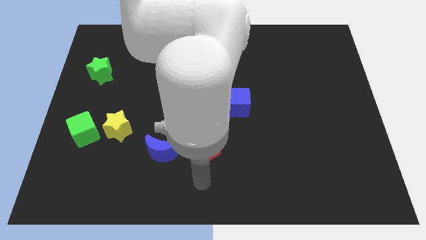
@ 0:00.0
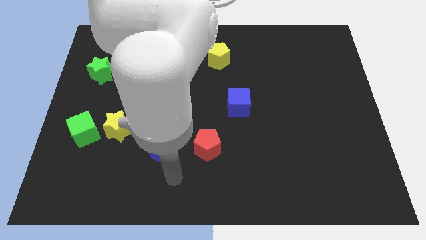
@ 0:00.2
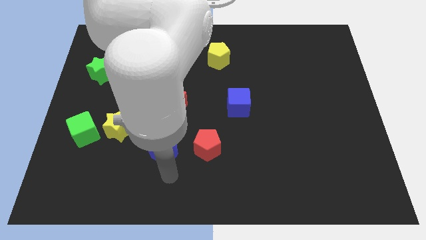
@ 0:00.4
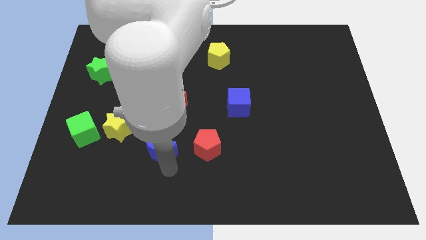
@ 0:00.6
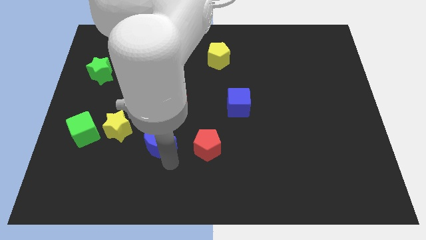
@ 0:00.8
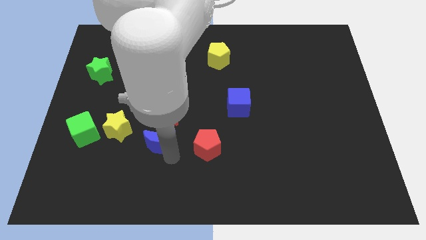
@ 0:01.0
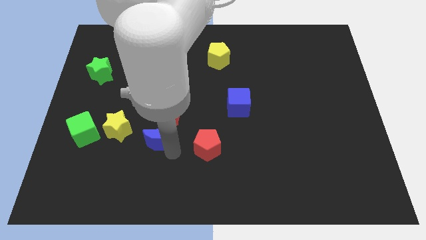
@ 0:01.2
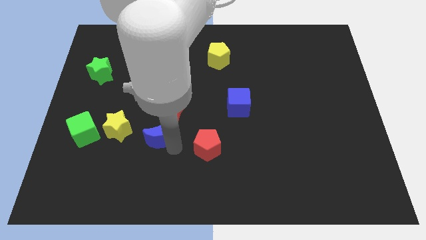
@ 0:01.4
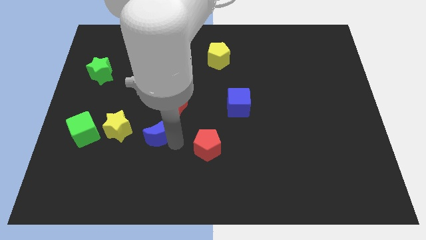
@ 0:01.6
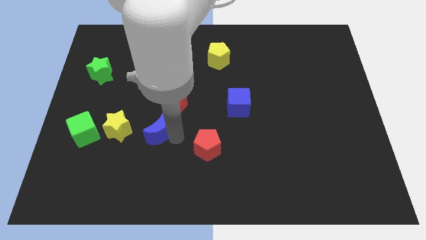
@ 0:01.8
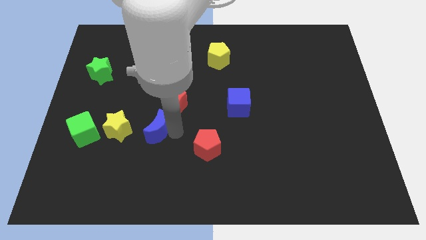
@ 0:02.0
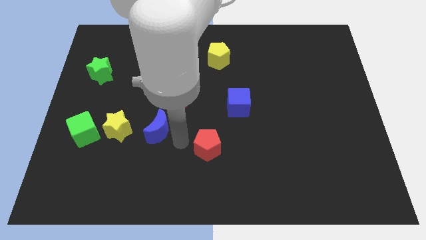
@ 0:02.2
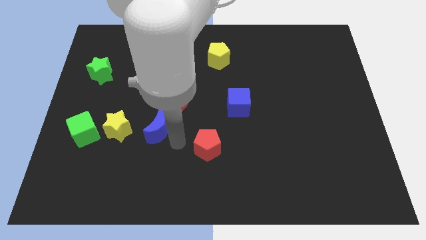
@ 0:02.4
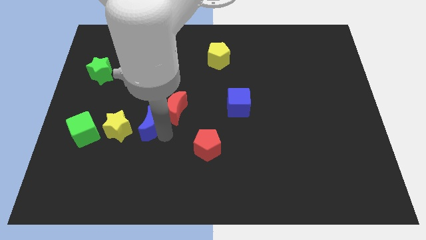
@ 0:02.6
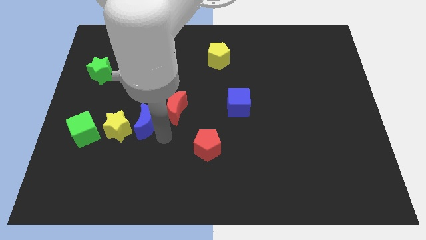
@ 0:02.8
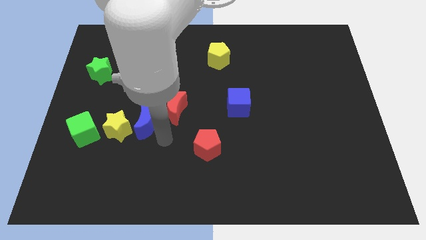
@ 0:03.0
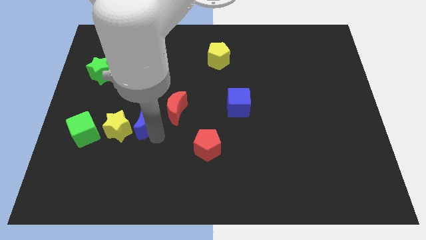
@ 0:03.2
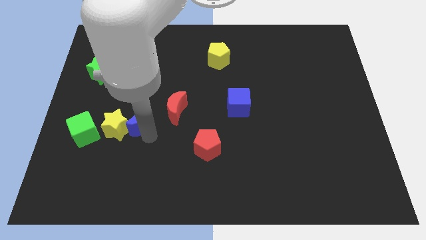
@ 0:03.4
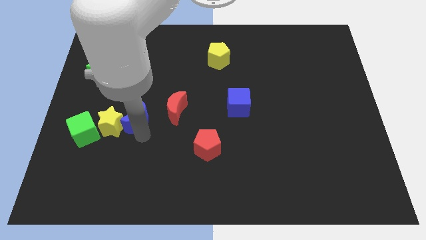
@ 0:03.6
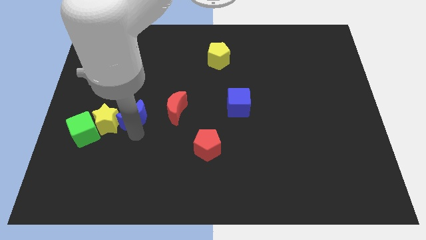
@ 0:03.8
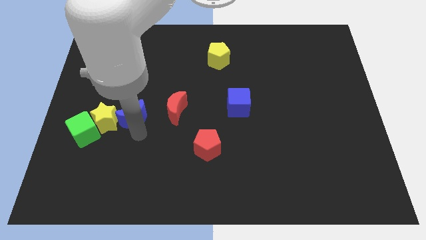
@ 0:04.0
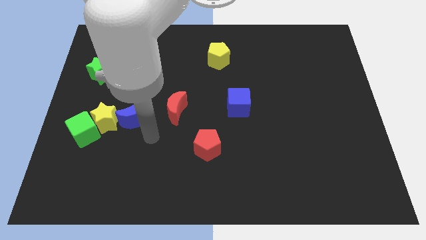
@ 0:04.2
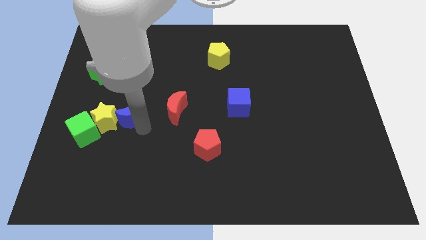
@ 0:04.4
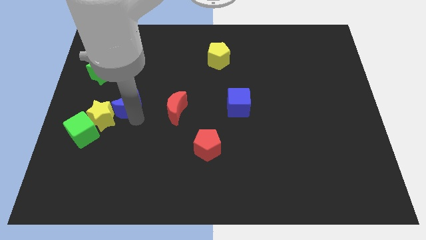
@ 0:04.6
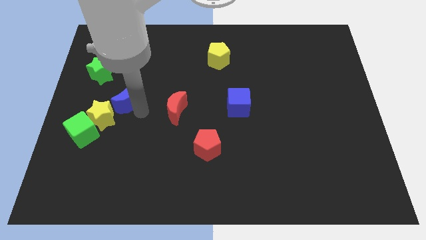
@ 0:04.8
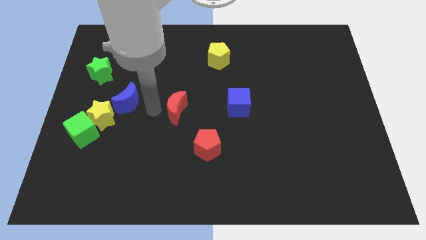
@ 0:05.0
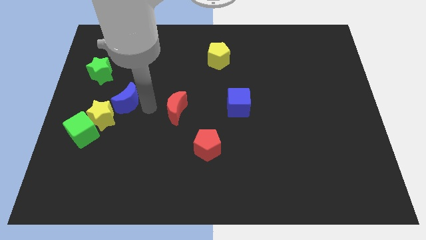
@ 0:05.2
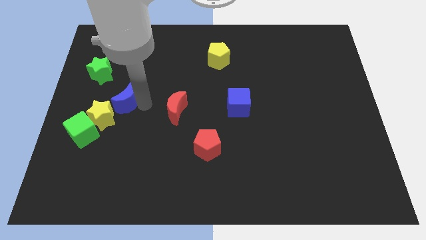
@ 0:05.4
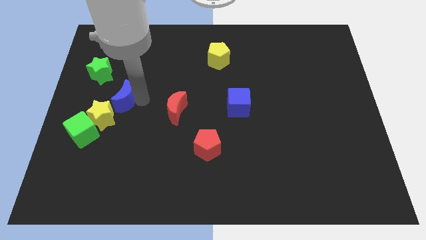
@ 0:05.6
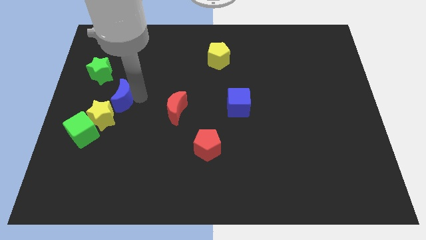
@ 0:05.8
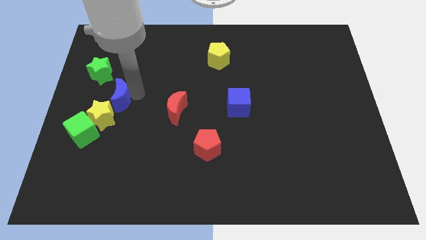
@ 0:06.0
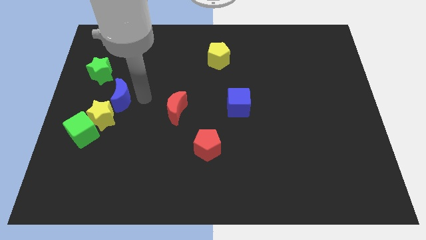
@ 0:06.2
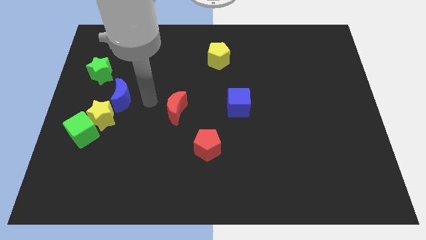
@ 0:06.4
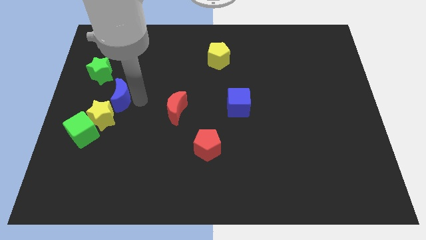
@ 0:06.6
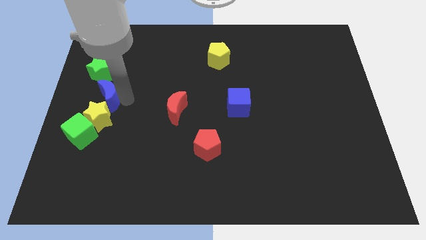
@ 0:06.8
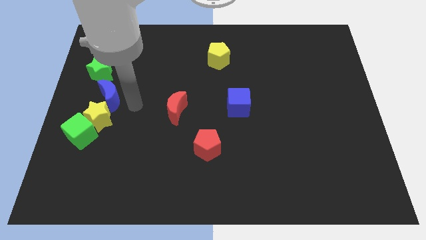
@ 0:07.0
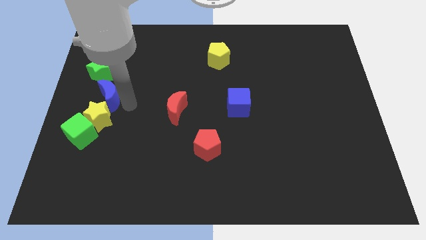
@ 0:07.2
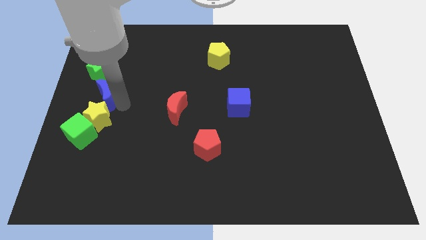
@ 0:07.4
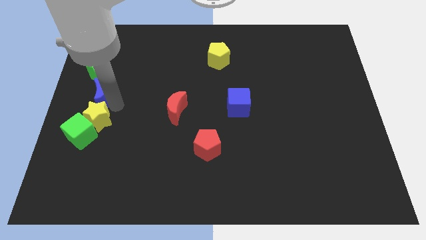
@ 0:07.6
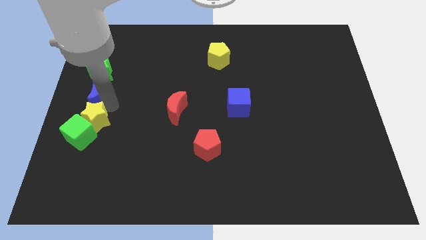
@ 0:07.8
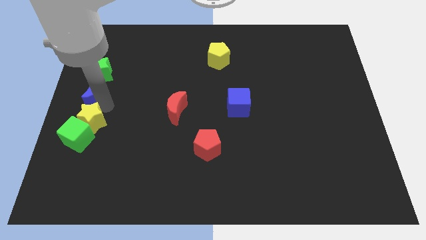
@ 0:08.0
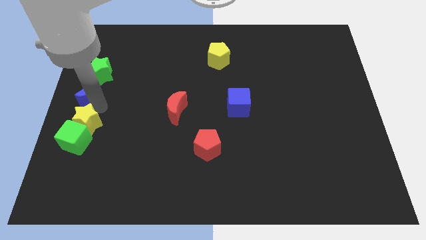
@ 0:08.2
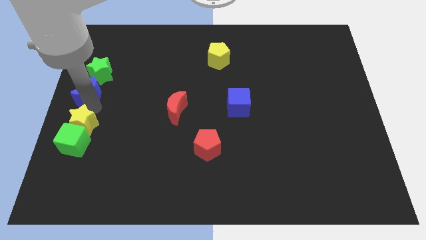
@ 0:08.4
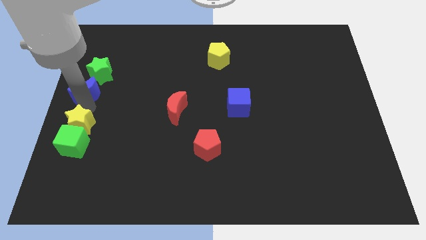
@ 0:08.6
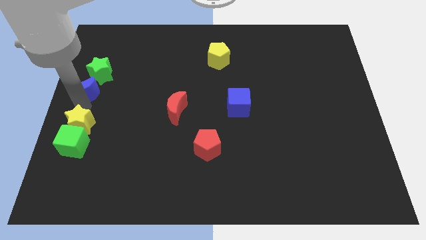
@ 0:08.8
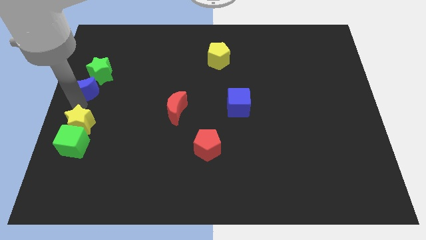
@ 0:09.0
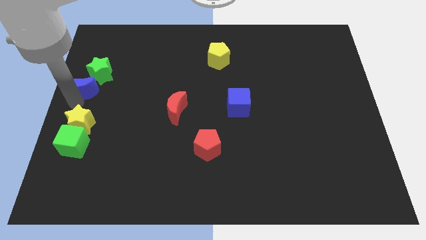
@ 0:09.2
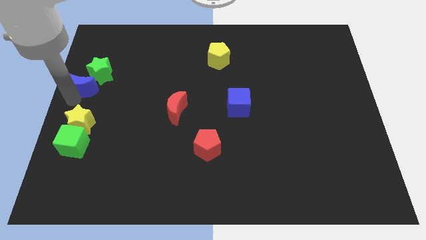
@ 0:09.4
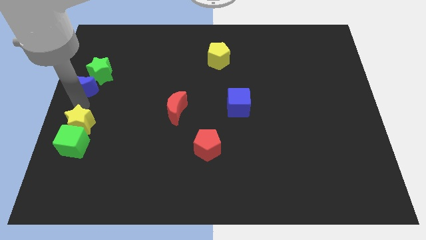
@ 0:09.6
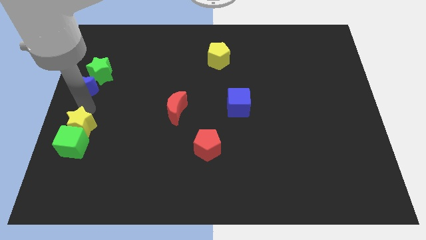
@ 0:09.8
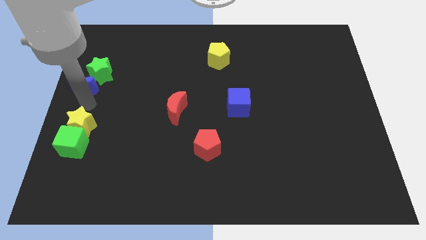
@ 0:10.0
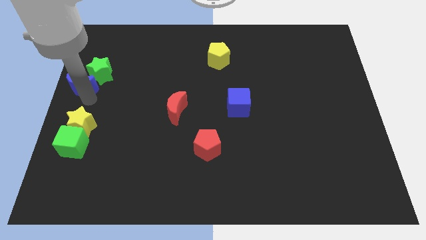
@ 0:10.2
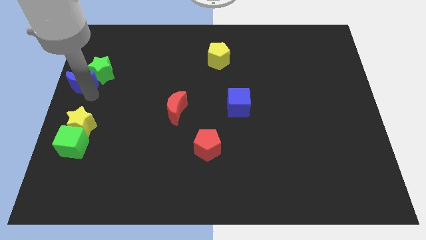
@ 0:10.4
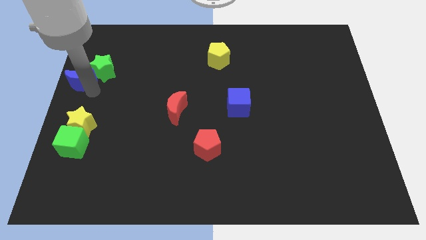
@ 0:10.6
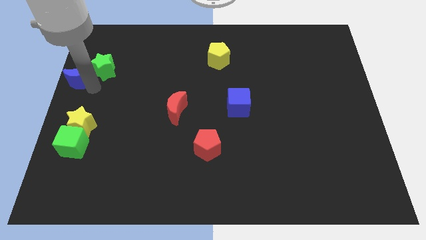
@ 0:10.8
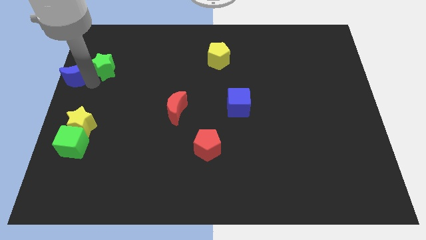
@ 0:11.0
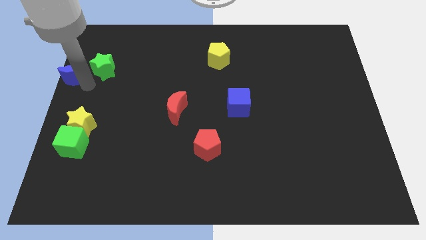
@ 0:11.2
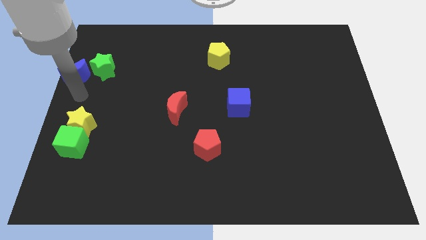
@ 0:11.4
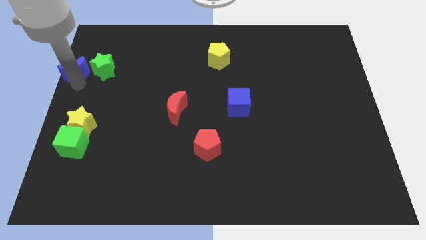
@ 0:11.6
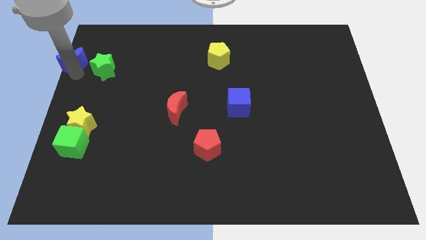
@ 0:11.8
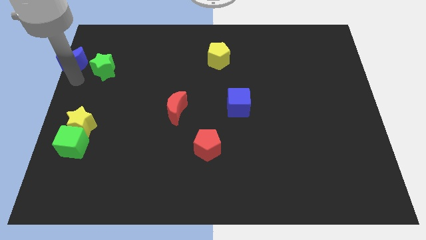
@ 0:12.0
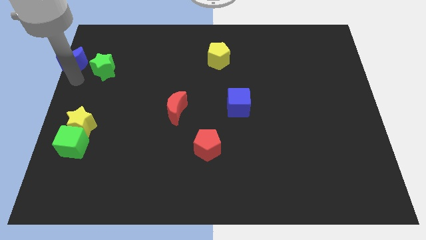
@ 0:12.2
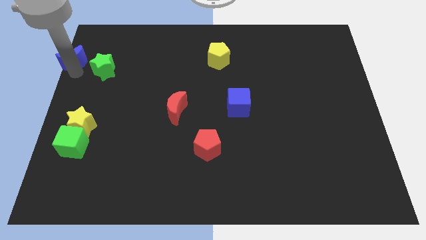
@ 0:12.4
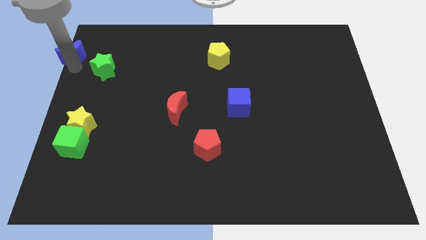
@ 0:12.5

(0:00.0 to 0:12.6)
slide the blue moon to the top left of the board
